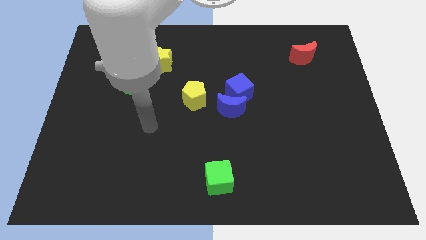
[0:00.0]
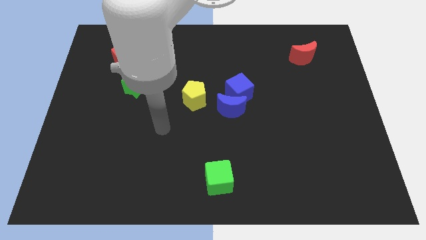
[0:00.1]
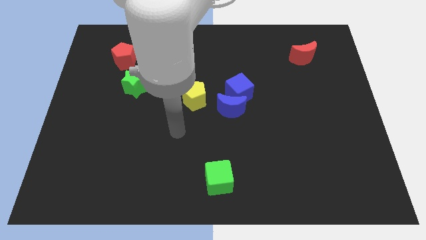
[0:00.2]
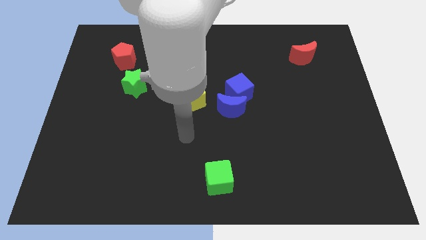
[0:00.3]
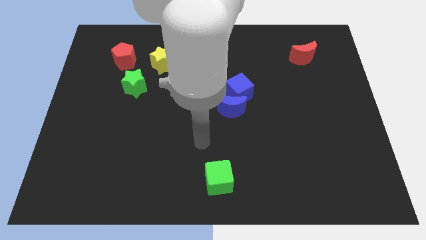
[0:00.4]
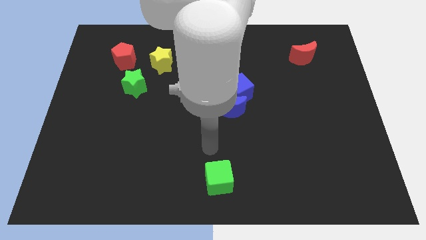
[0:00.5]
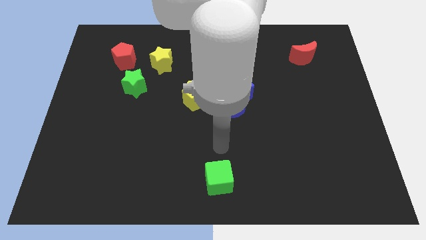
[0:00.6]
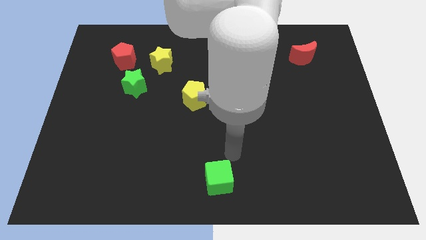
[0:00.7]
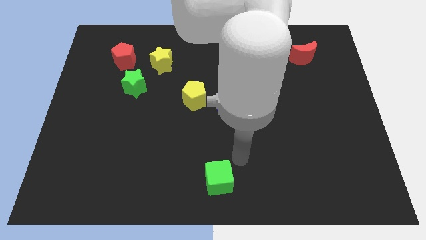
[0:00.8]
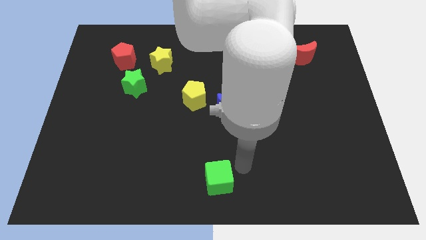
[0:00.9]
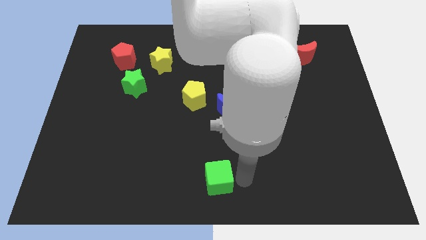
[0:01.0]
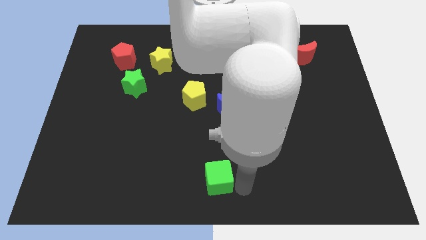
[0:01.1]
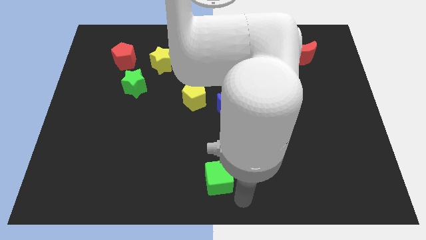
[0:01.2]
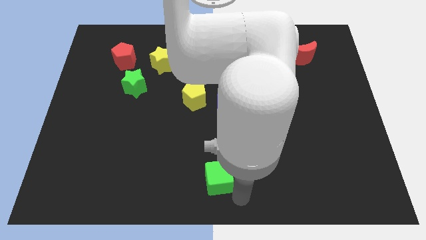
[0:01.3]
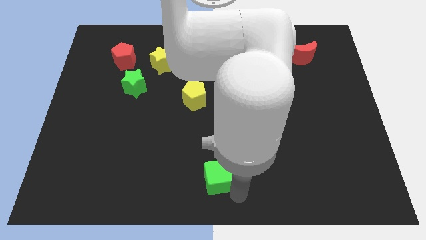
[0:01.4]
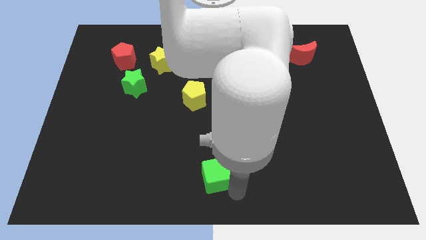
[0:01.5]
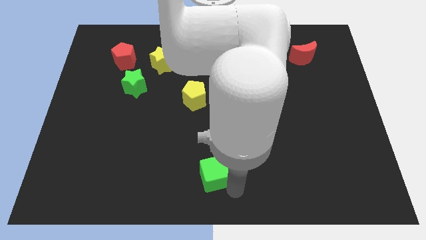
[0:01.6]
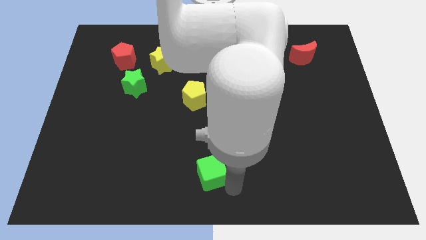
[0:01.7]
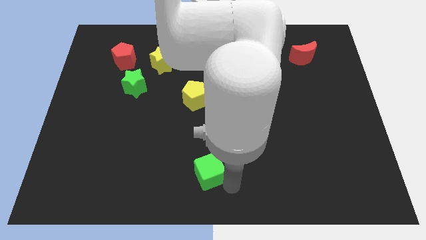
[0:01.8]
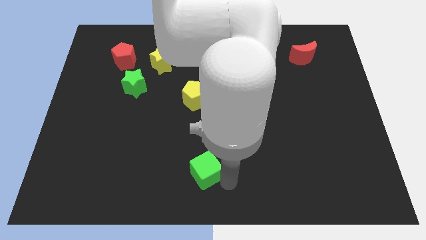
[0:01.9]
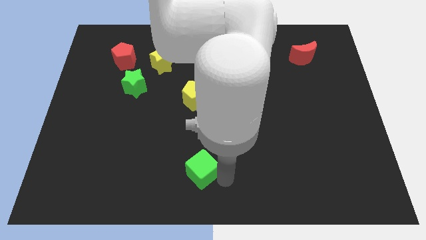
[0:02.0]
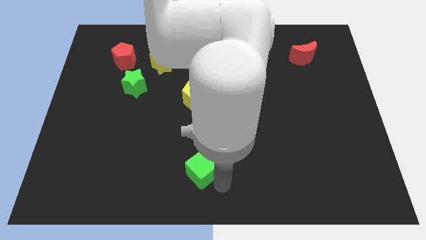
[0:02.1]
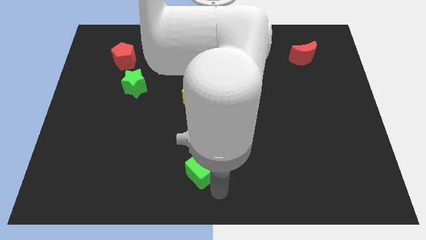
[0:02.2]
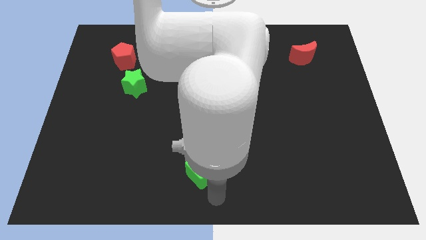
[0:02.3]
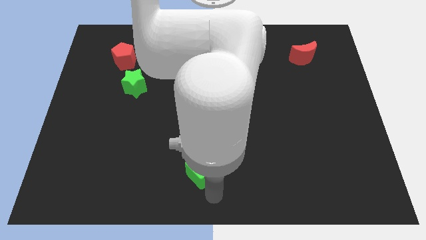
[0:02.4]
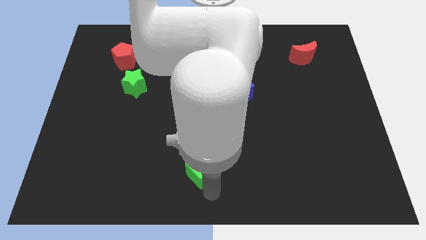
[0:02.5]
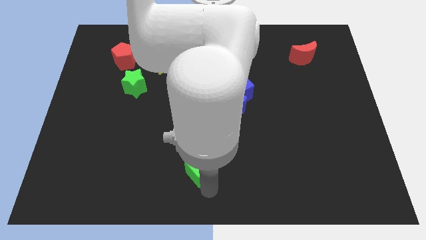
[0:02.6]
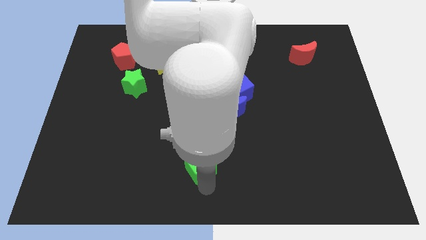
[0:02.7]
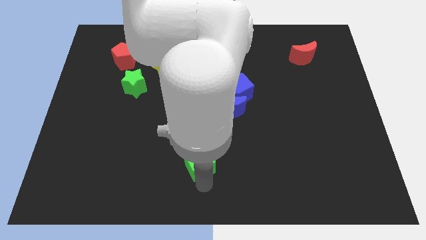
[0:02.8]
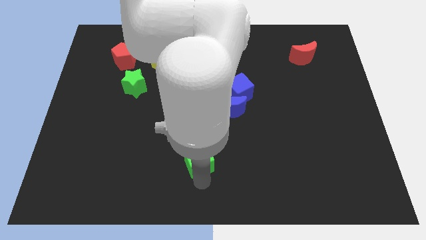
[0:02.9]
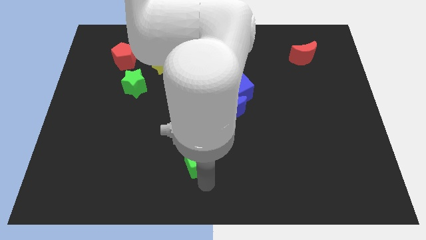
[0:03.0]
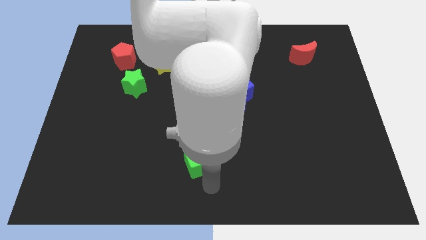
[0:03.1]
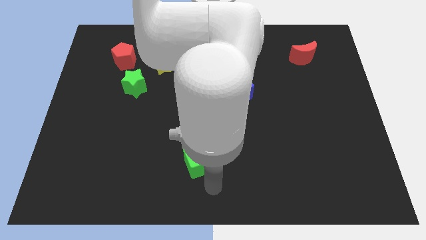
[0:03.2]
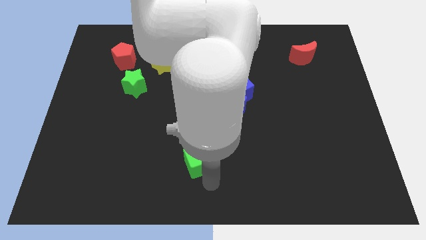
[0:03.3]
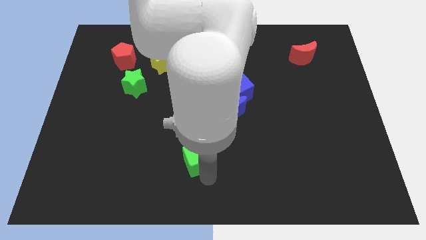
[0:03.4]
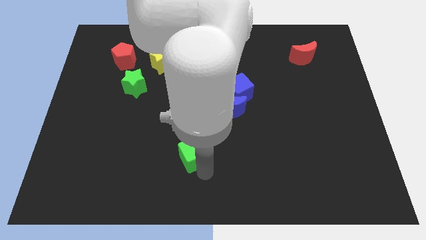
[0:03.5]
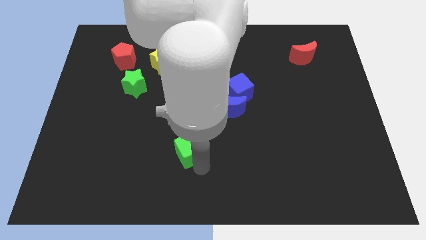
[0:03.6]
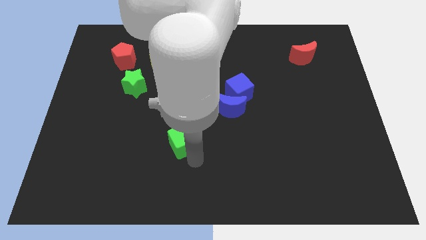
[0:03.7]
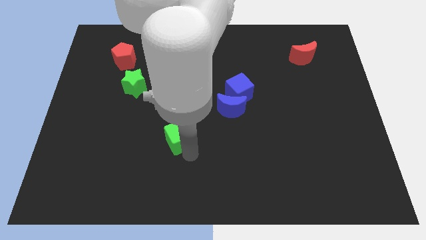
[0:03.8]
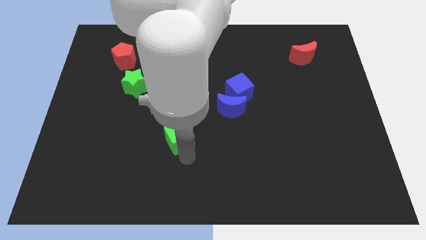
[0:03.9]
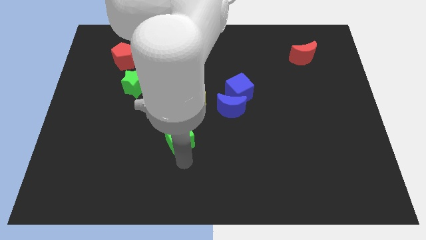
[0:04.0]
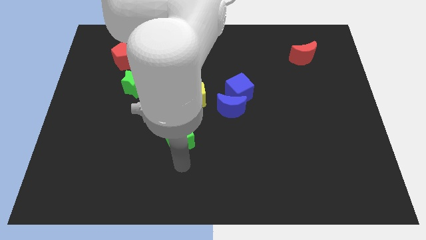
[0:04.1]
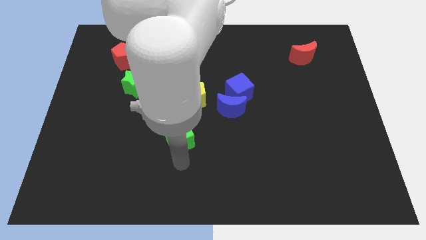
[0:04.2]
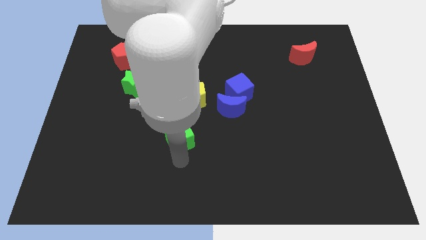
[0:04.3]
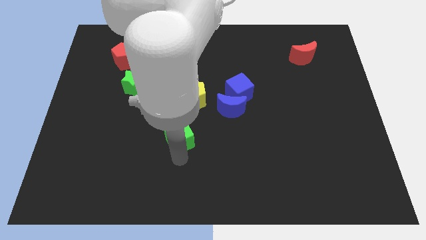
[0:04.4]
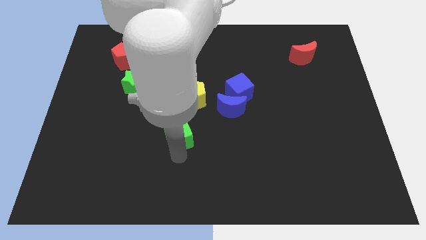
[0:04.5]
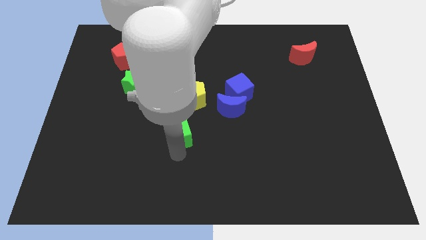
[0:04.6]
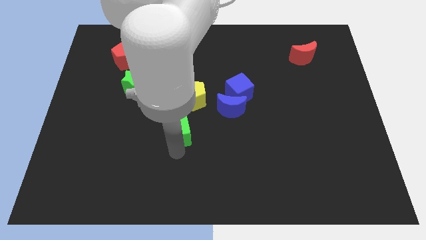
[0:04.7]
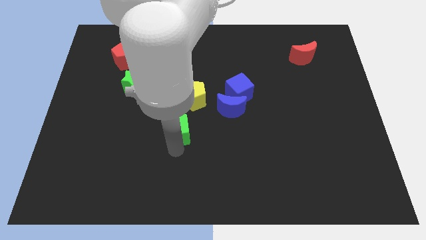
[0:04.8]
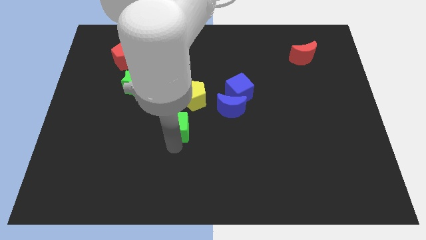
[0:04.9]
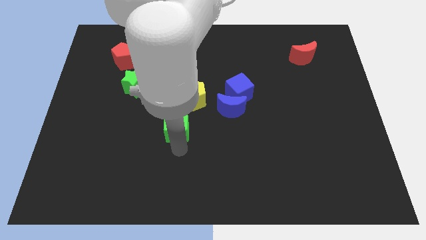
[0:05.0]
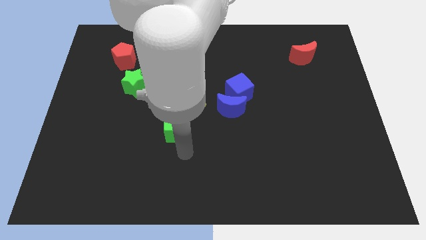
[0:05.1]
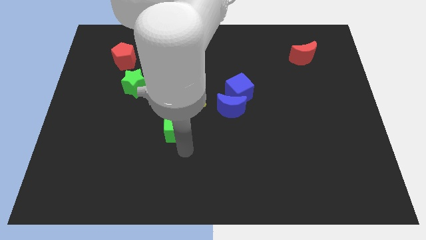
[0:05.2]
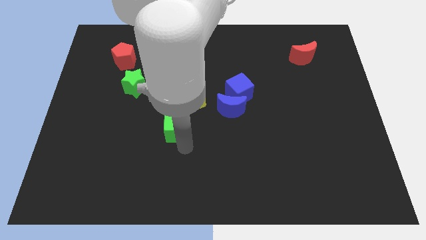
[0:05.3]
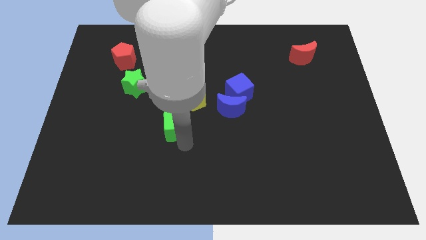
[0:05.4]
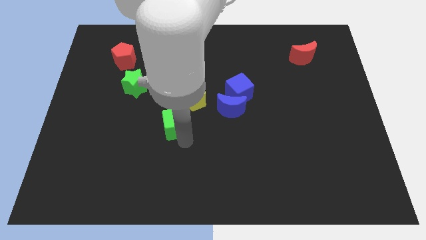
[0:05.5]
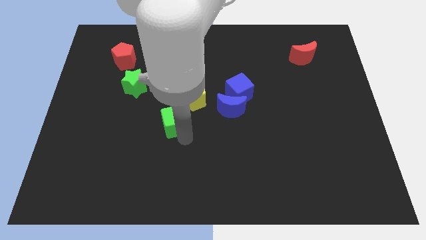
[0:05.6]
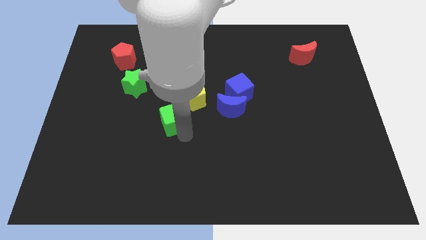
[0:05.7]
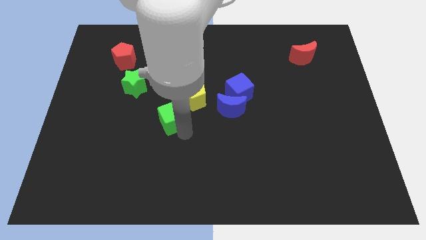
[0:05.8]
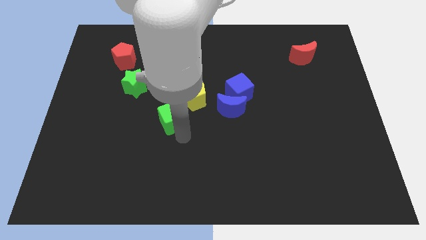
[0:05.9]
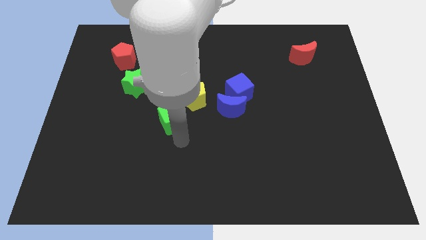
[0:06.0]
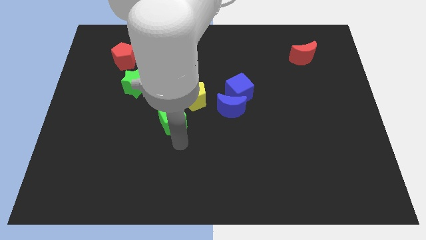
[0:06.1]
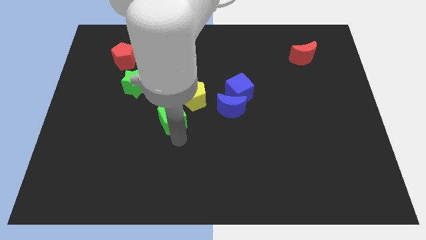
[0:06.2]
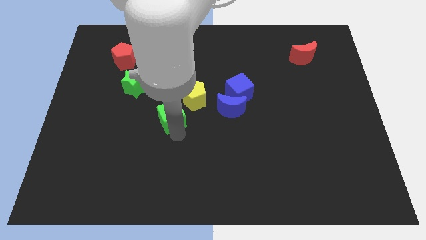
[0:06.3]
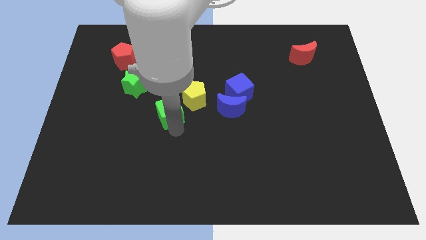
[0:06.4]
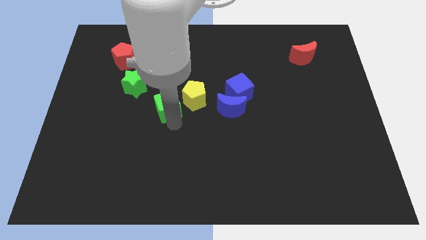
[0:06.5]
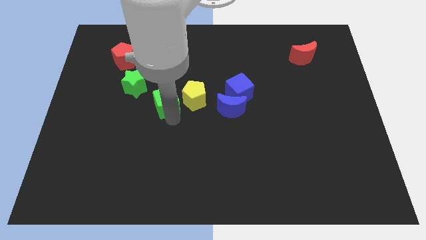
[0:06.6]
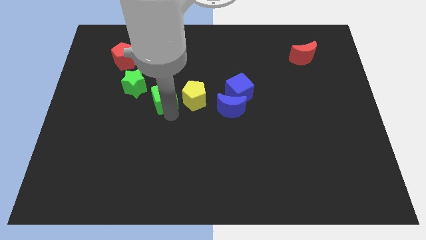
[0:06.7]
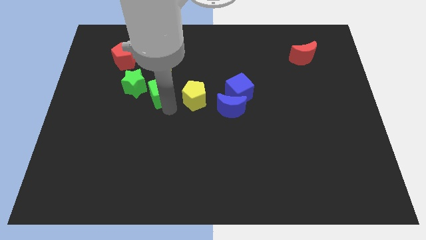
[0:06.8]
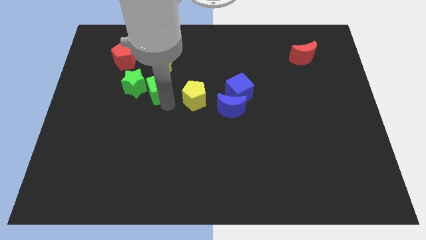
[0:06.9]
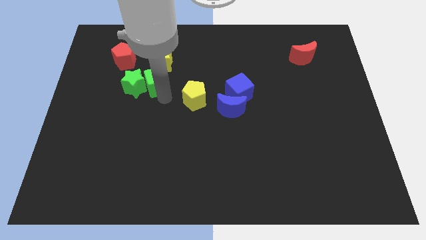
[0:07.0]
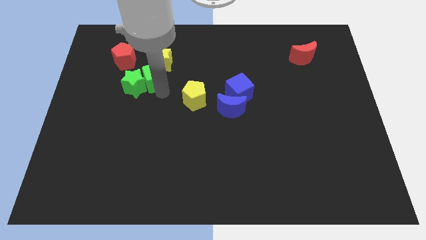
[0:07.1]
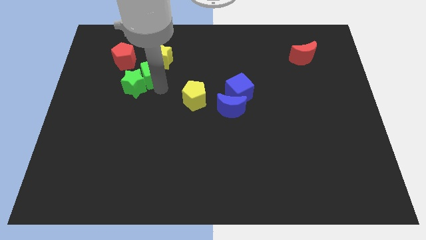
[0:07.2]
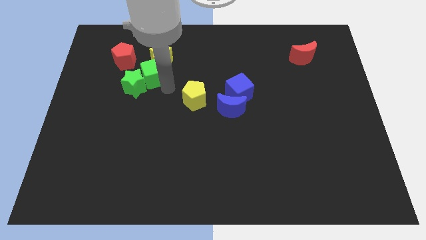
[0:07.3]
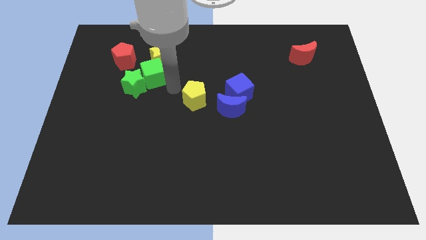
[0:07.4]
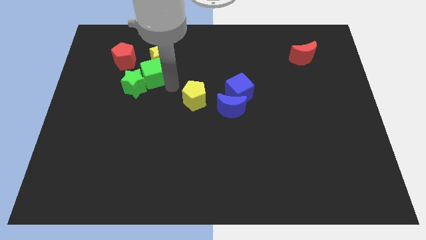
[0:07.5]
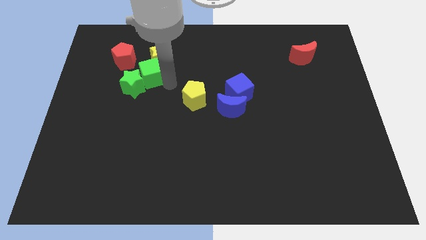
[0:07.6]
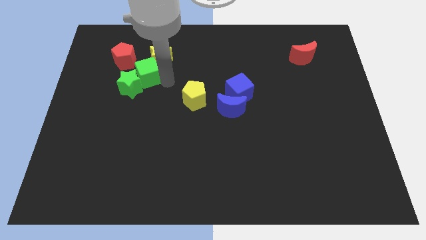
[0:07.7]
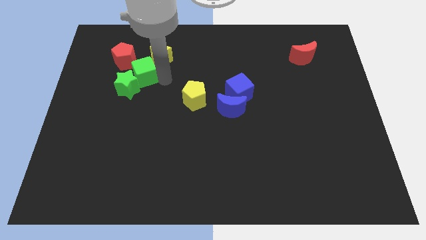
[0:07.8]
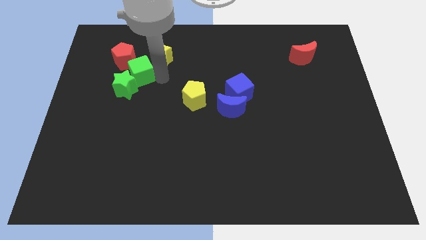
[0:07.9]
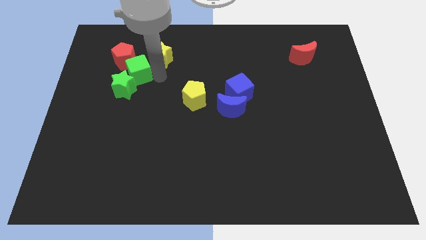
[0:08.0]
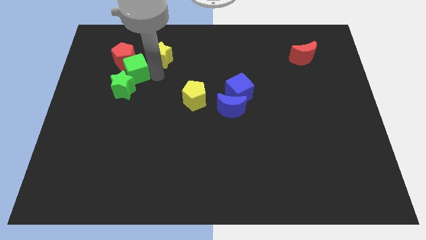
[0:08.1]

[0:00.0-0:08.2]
put the green cube close to the red pentagon

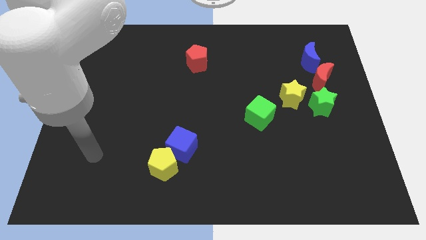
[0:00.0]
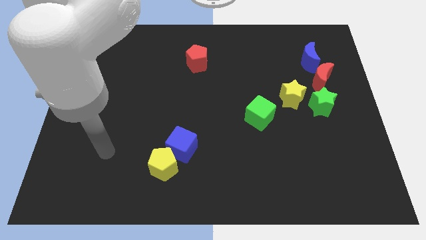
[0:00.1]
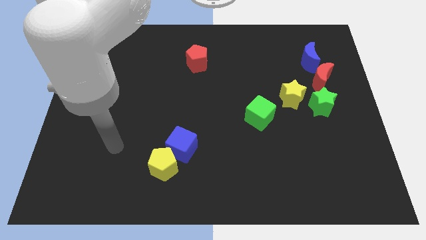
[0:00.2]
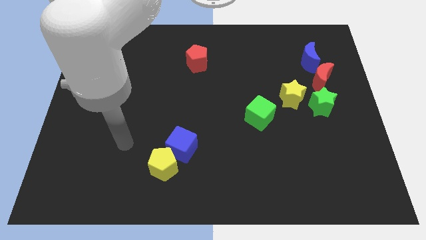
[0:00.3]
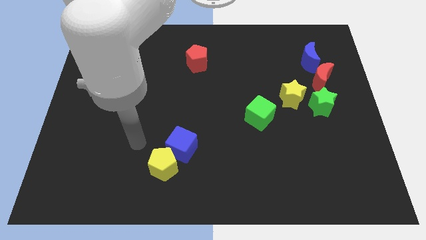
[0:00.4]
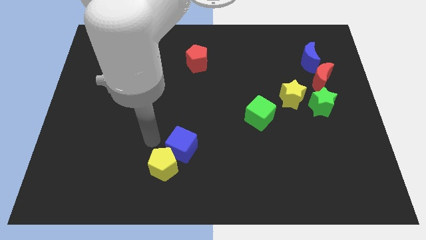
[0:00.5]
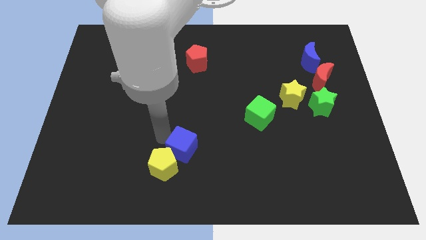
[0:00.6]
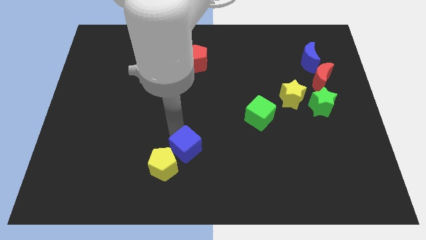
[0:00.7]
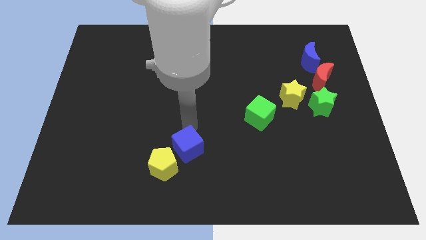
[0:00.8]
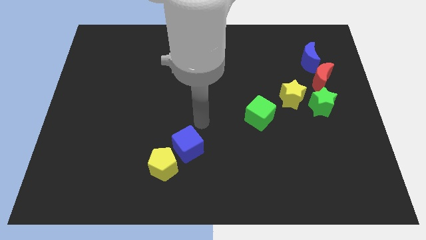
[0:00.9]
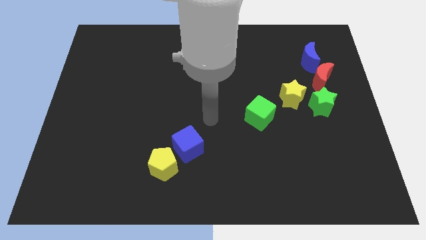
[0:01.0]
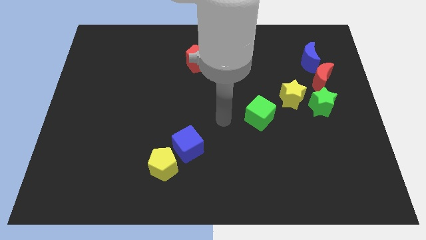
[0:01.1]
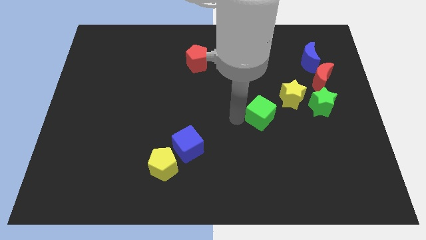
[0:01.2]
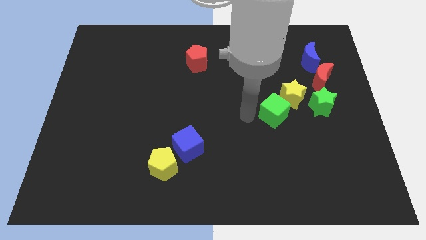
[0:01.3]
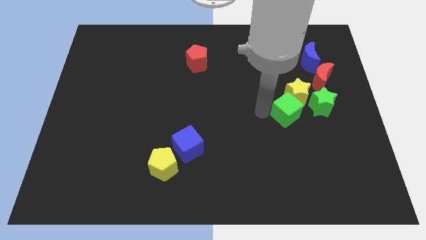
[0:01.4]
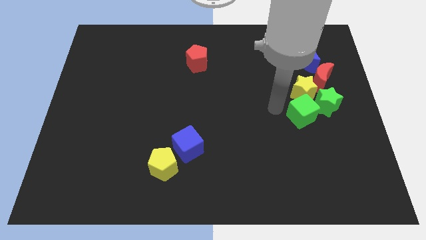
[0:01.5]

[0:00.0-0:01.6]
push the yellow star next to the red moon
